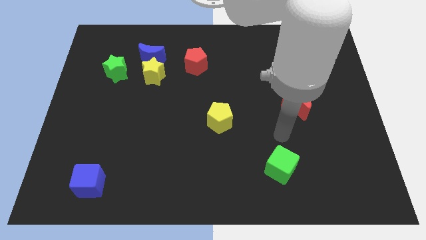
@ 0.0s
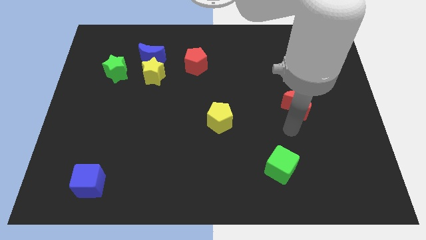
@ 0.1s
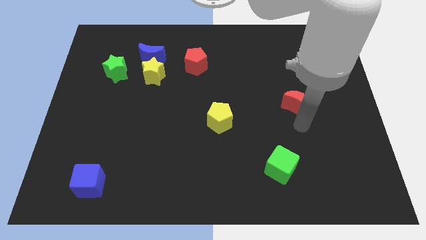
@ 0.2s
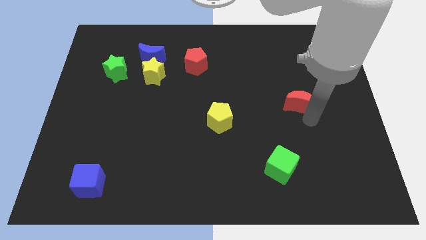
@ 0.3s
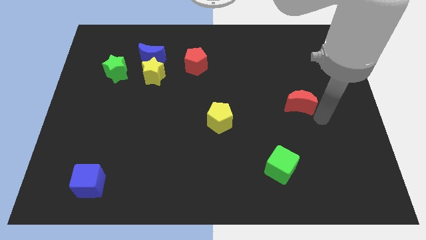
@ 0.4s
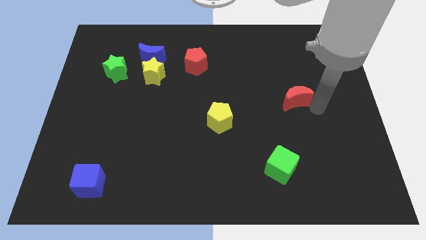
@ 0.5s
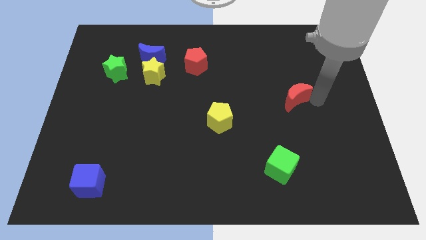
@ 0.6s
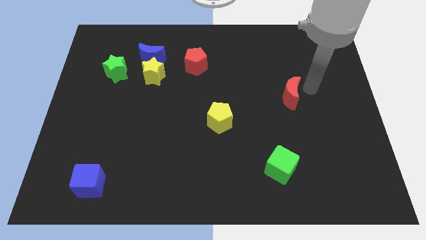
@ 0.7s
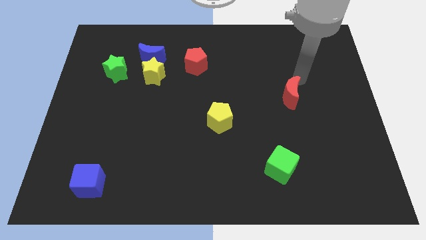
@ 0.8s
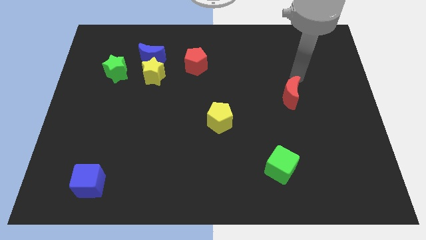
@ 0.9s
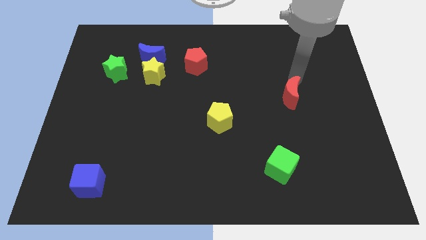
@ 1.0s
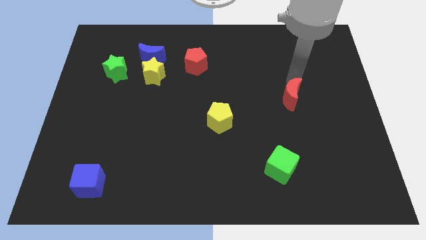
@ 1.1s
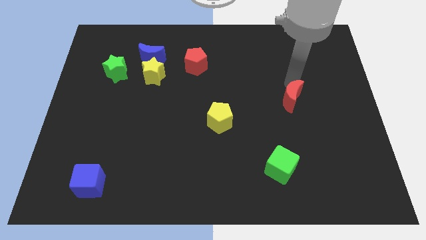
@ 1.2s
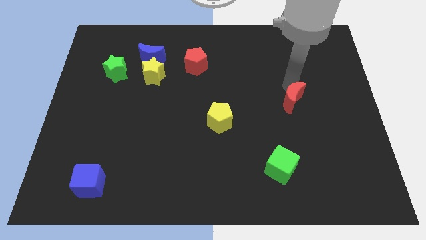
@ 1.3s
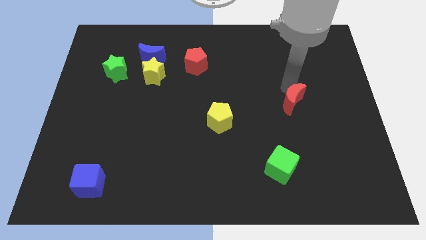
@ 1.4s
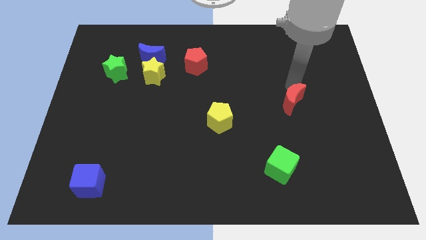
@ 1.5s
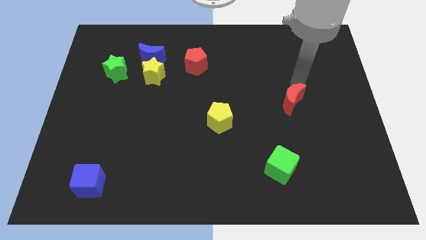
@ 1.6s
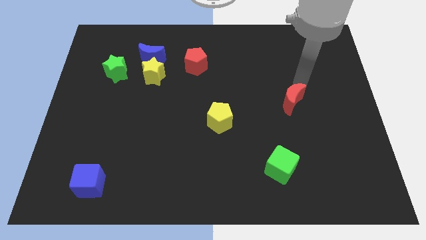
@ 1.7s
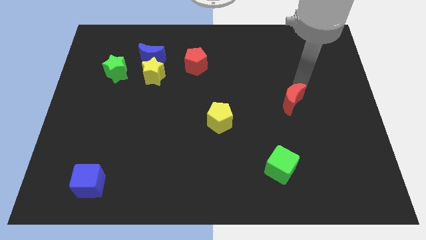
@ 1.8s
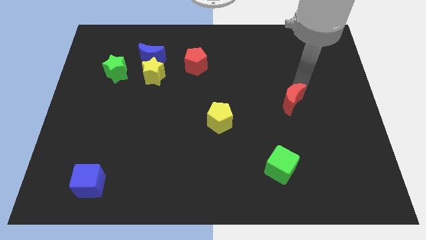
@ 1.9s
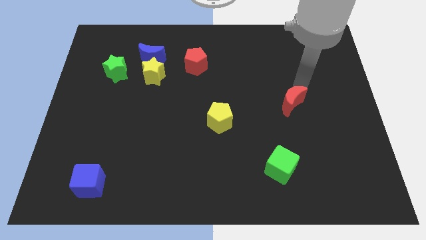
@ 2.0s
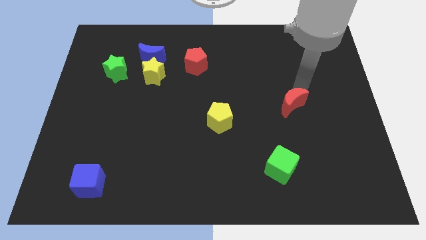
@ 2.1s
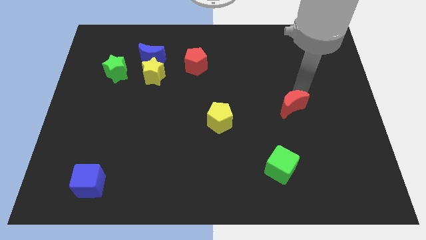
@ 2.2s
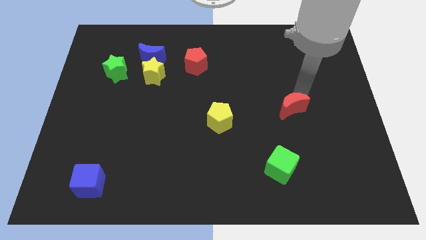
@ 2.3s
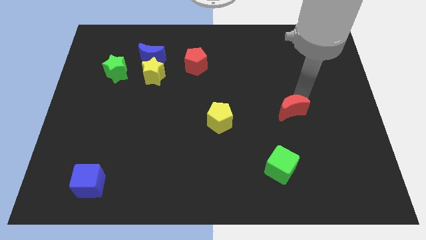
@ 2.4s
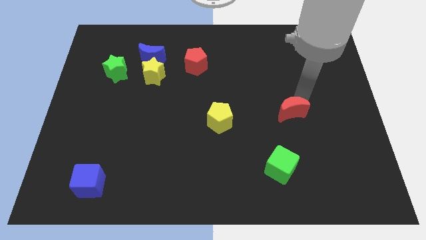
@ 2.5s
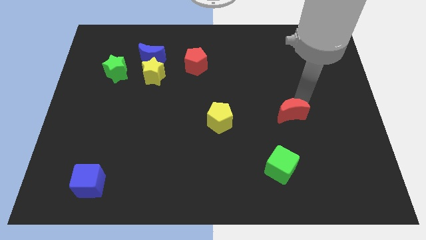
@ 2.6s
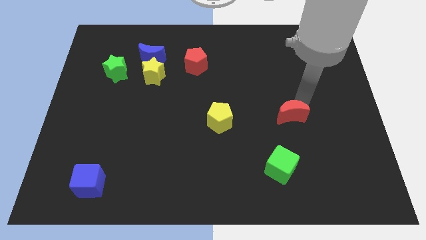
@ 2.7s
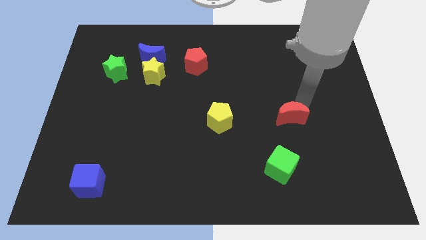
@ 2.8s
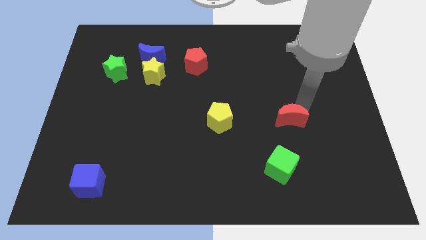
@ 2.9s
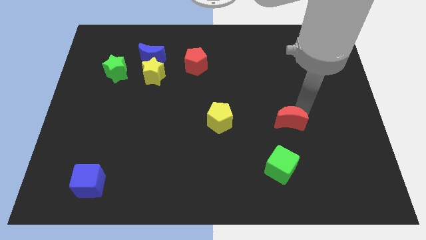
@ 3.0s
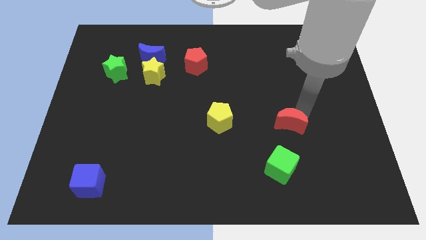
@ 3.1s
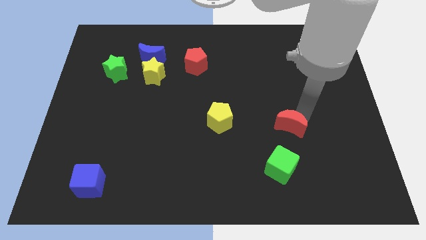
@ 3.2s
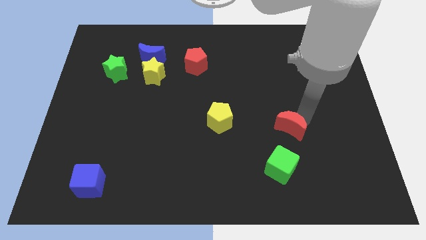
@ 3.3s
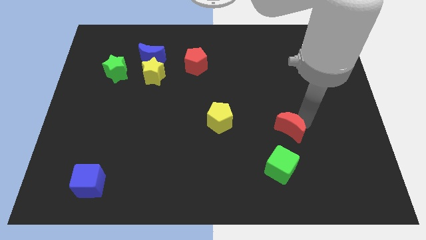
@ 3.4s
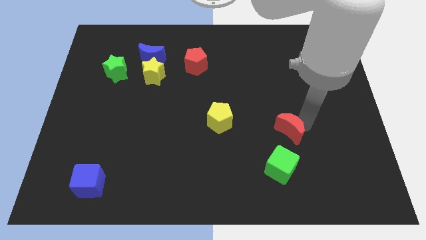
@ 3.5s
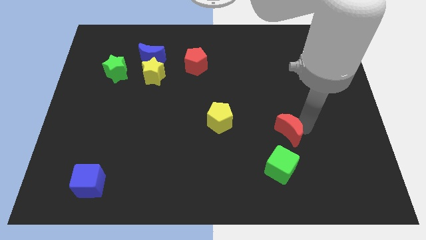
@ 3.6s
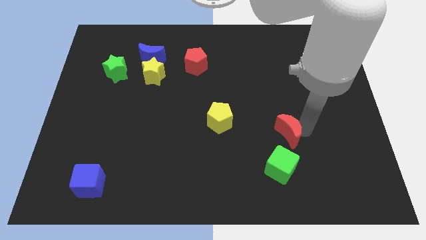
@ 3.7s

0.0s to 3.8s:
move the red moon downwards and left diagonally slightly

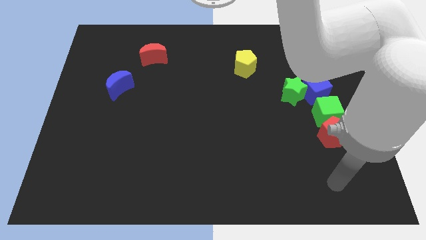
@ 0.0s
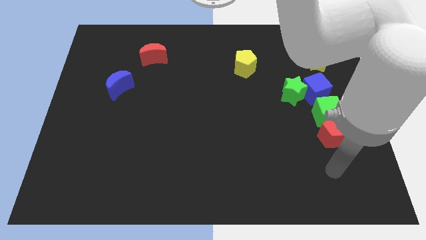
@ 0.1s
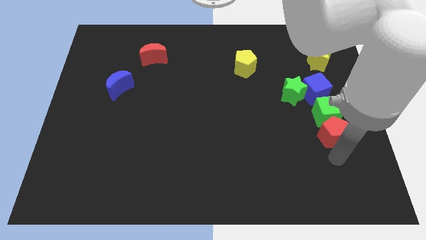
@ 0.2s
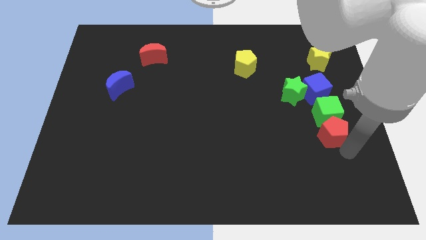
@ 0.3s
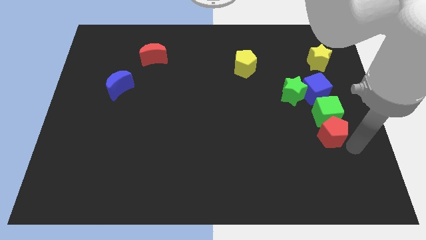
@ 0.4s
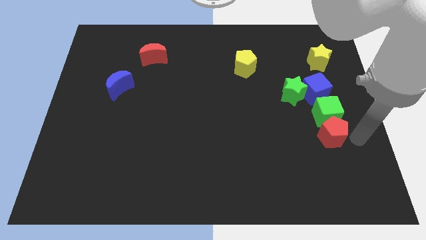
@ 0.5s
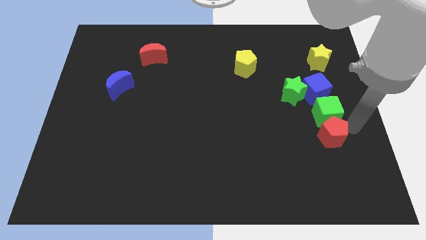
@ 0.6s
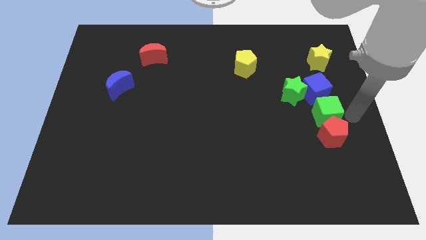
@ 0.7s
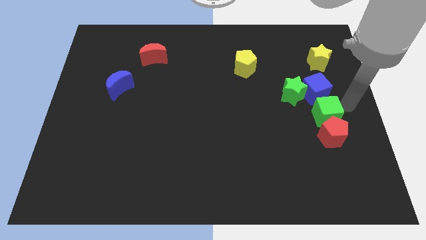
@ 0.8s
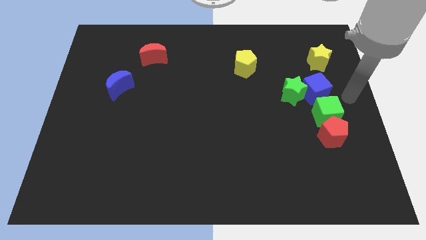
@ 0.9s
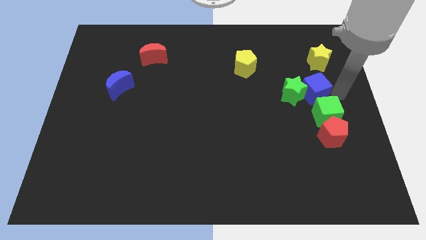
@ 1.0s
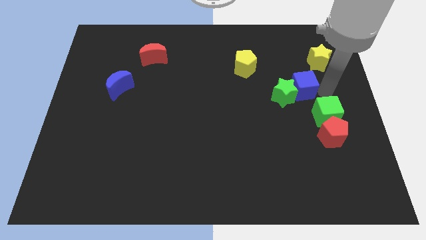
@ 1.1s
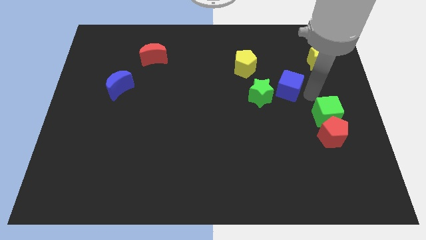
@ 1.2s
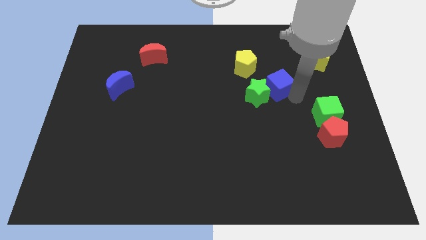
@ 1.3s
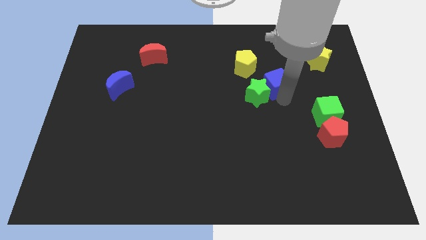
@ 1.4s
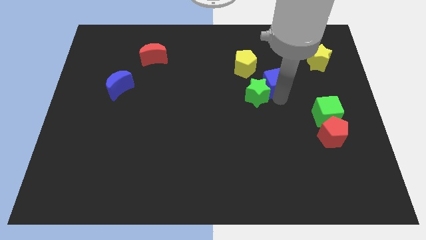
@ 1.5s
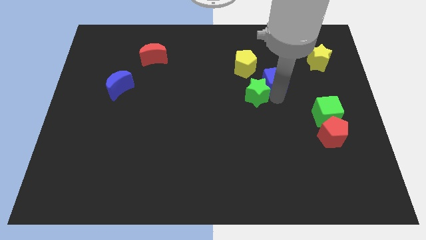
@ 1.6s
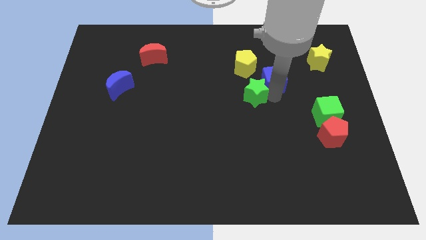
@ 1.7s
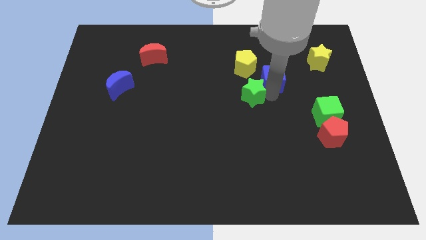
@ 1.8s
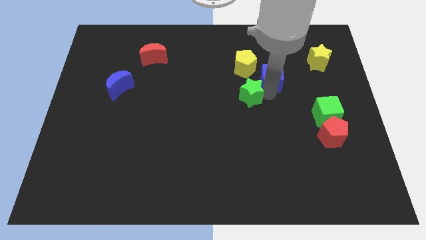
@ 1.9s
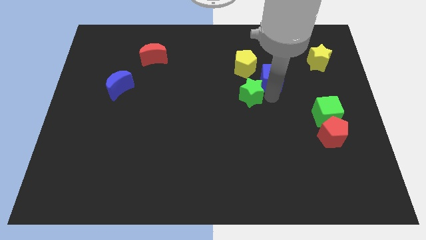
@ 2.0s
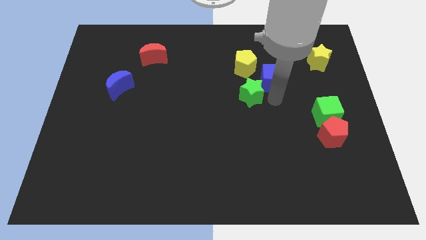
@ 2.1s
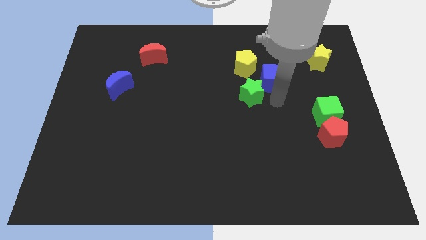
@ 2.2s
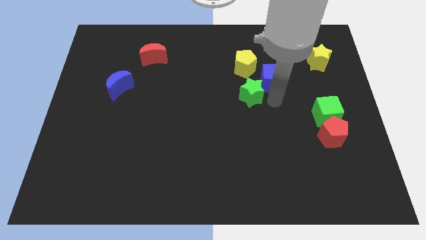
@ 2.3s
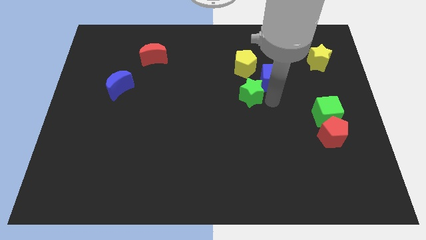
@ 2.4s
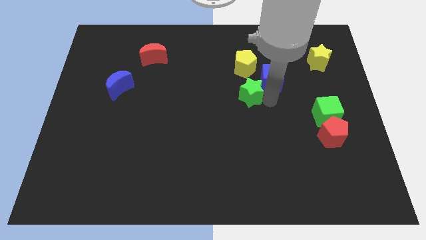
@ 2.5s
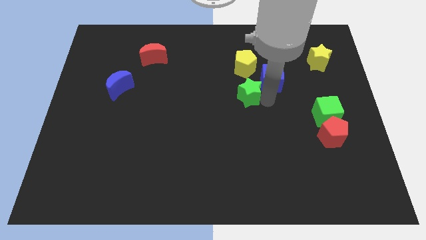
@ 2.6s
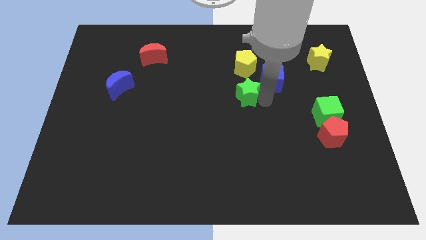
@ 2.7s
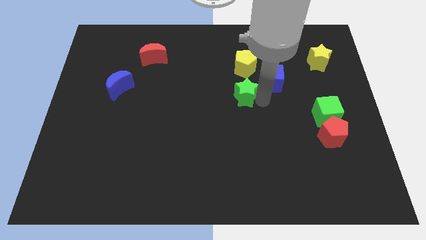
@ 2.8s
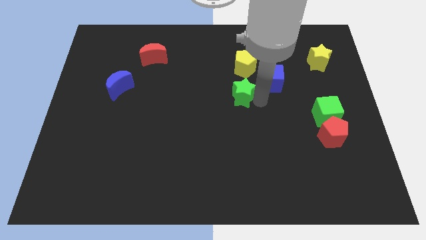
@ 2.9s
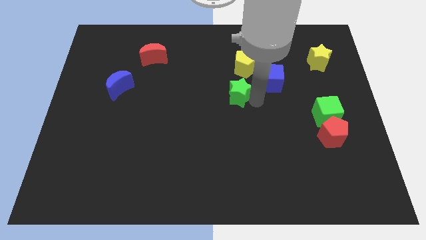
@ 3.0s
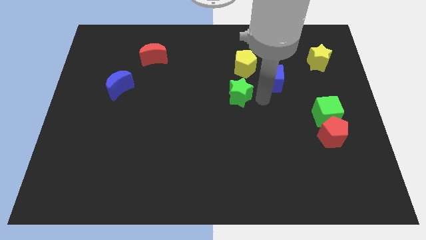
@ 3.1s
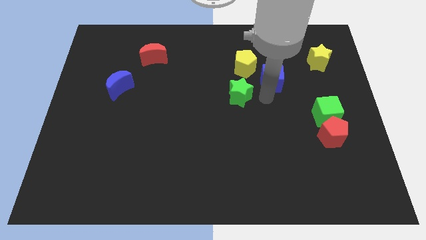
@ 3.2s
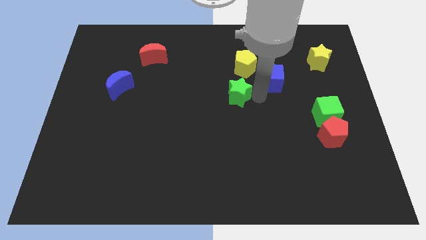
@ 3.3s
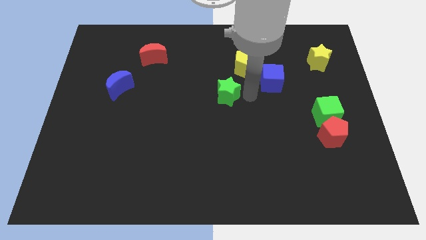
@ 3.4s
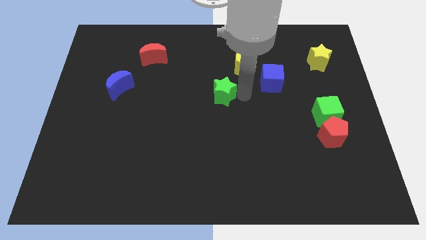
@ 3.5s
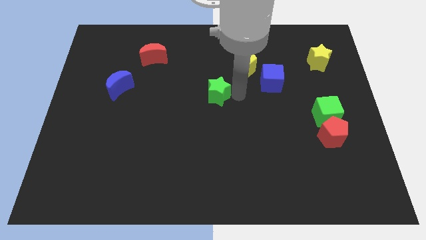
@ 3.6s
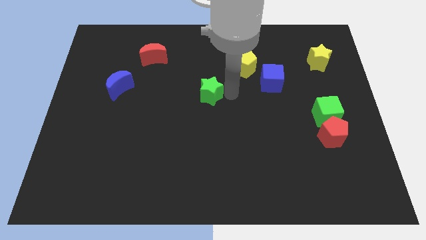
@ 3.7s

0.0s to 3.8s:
move the green star to the left

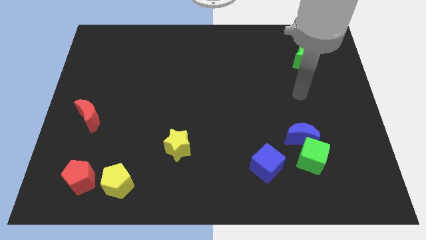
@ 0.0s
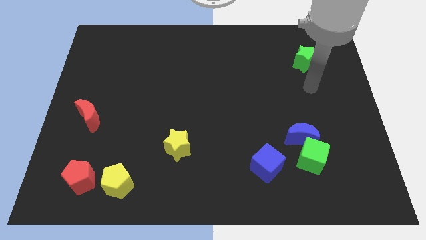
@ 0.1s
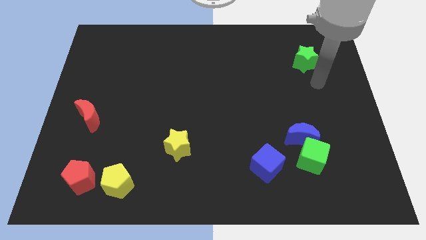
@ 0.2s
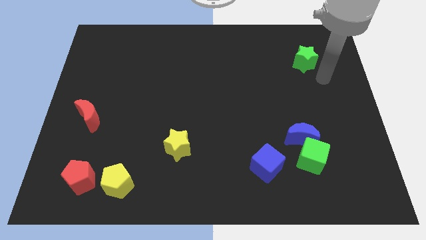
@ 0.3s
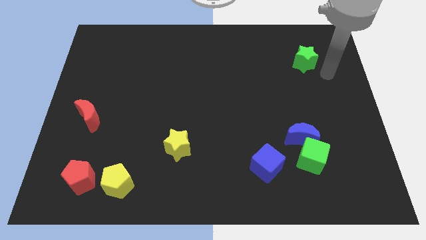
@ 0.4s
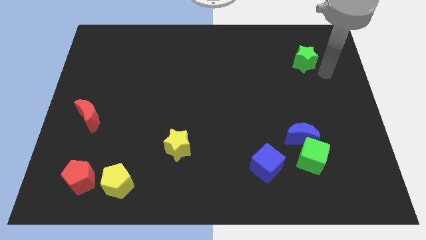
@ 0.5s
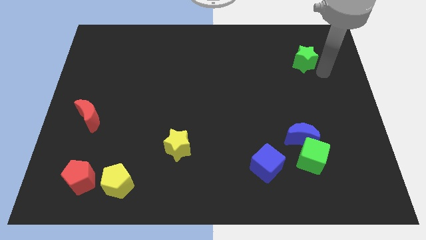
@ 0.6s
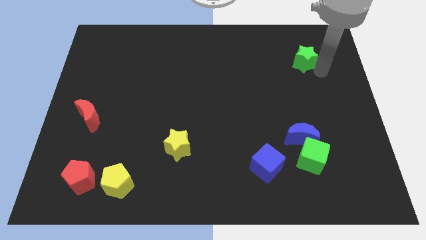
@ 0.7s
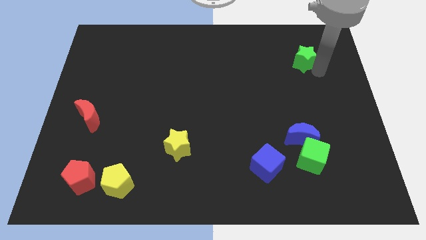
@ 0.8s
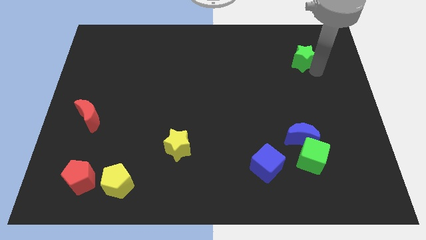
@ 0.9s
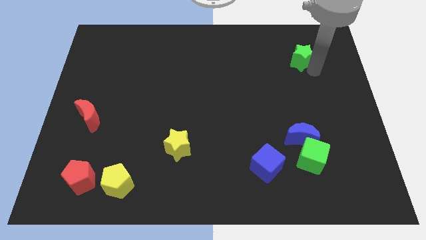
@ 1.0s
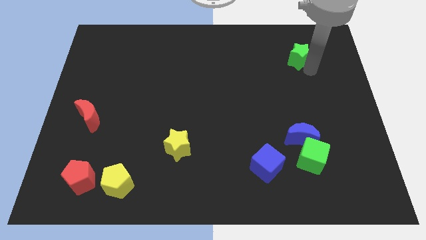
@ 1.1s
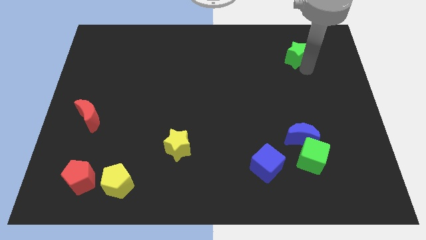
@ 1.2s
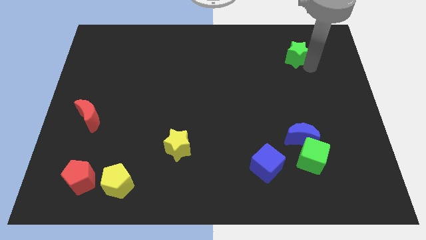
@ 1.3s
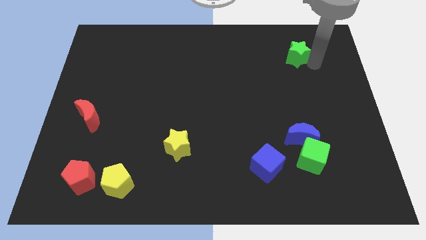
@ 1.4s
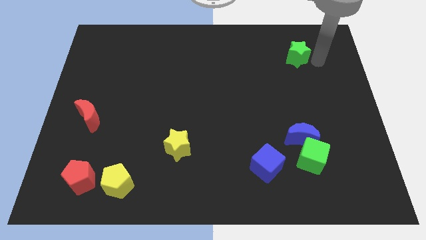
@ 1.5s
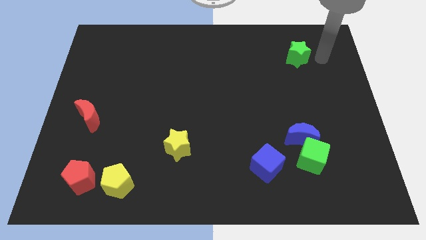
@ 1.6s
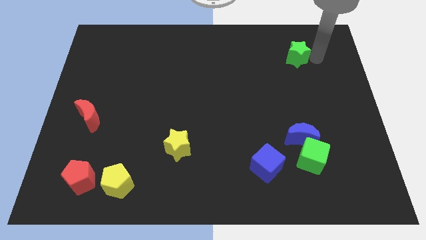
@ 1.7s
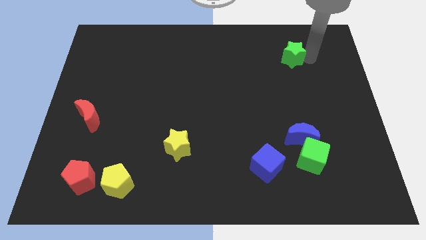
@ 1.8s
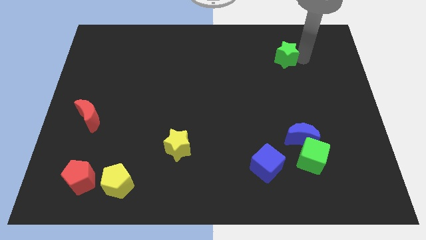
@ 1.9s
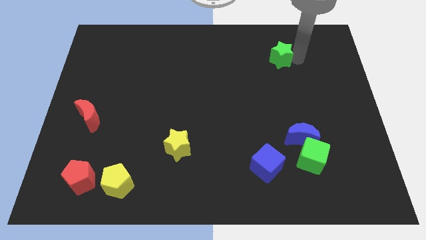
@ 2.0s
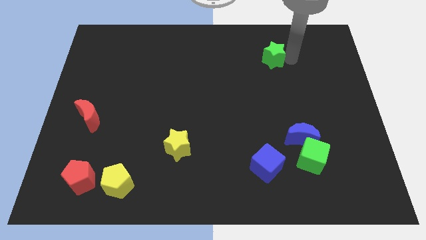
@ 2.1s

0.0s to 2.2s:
slightly push the green star to the left
